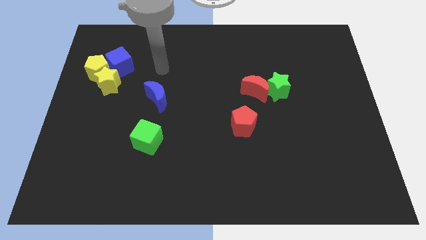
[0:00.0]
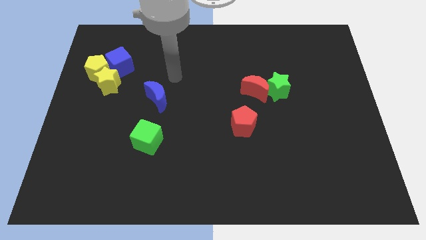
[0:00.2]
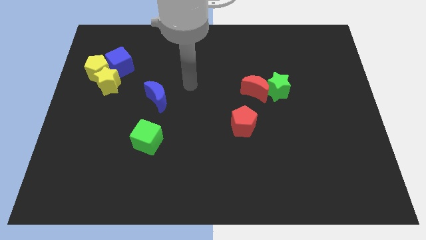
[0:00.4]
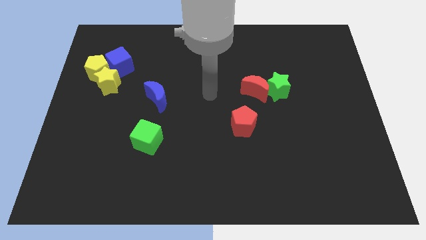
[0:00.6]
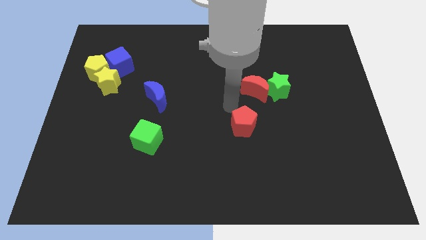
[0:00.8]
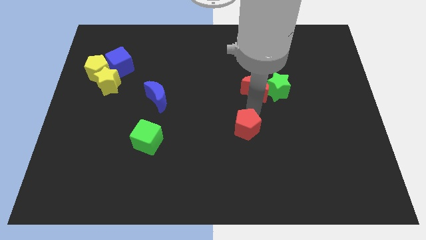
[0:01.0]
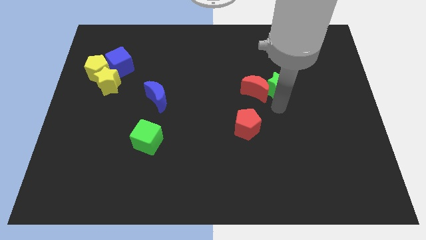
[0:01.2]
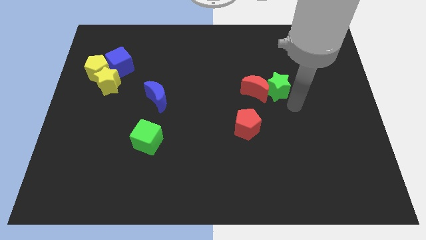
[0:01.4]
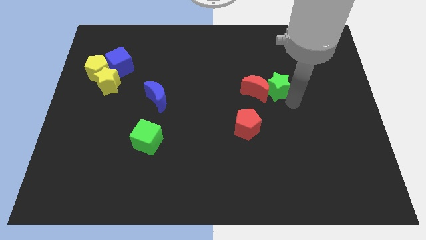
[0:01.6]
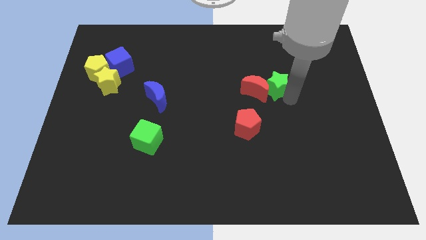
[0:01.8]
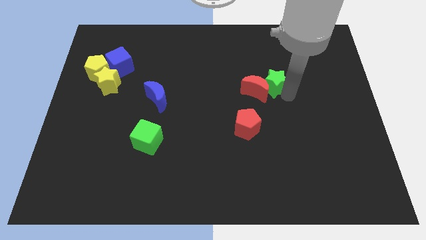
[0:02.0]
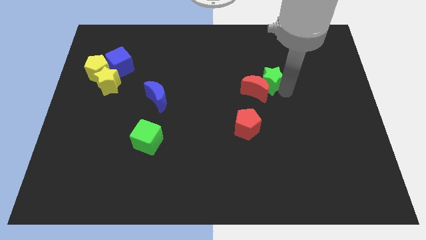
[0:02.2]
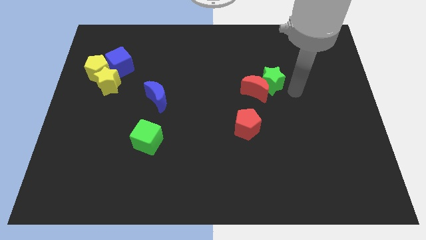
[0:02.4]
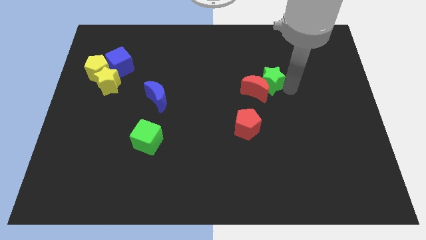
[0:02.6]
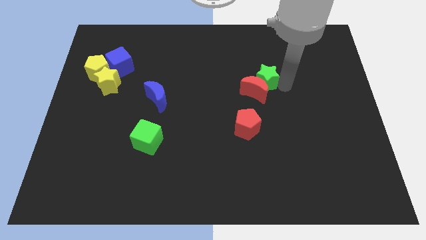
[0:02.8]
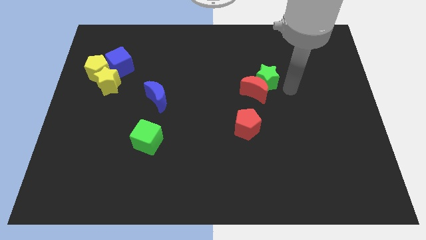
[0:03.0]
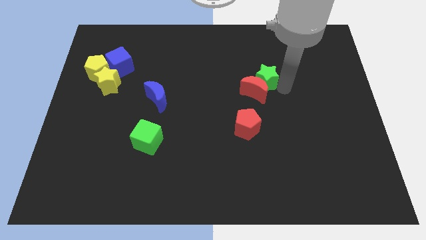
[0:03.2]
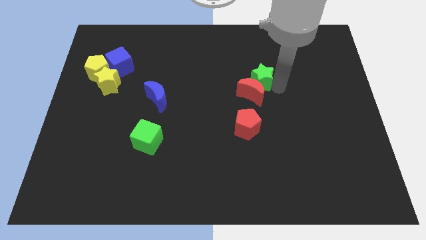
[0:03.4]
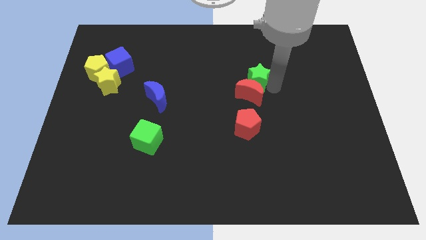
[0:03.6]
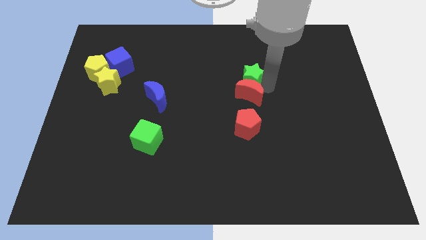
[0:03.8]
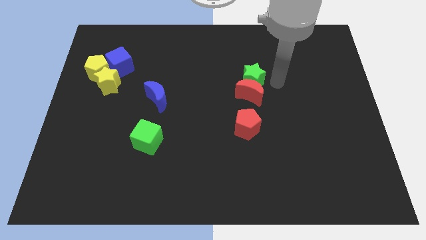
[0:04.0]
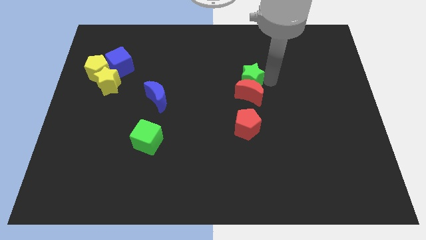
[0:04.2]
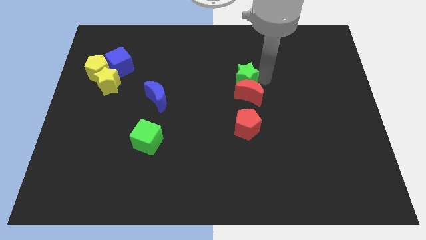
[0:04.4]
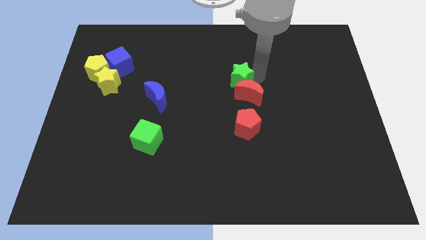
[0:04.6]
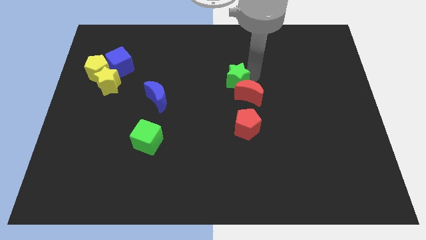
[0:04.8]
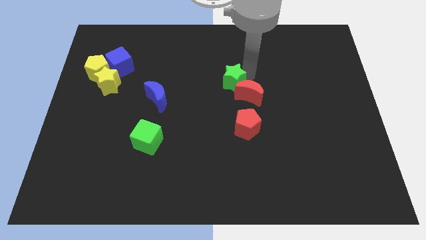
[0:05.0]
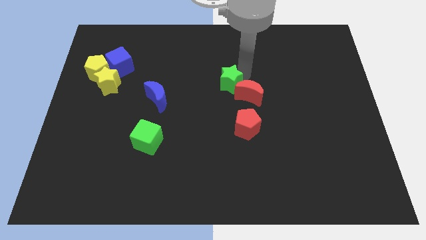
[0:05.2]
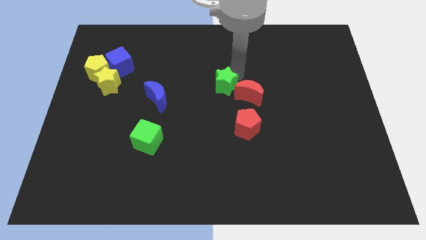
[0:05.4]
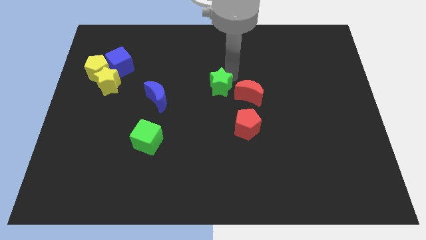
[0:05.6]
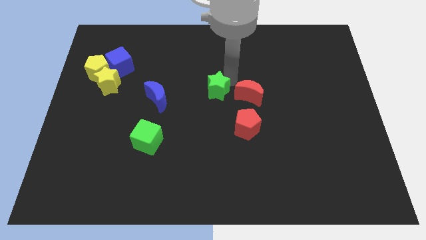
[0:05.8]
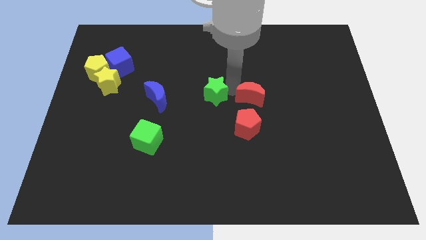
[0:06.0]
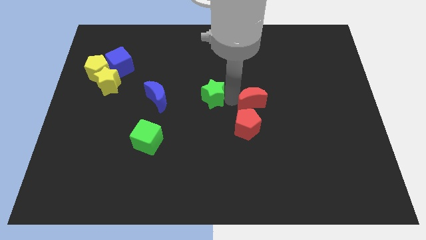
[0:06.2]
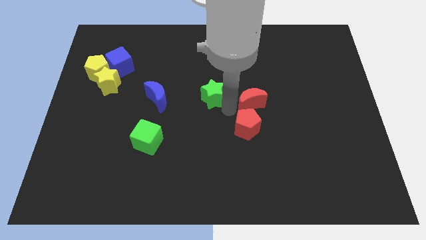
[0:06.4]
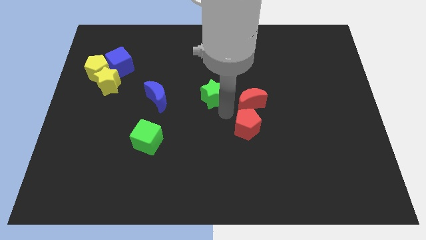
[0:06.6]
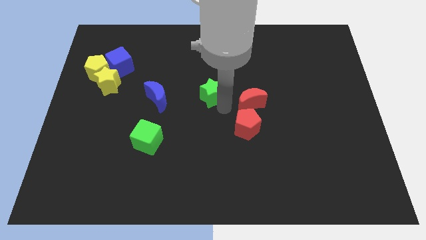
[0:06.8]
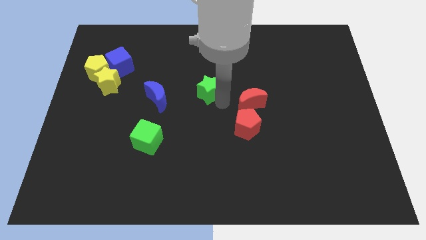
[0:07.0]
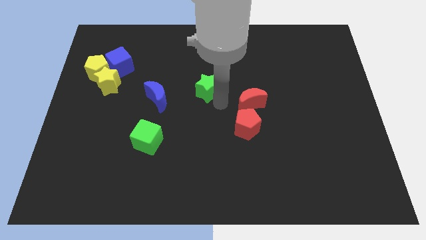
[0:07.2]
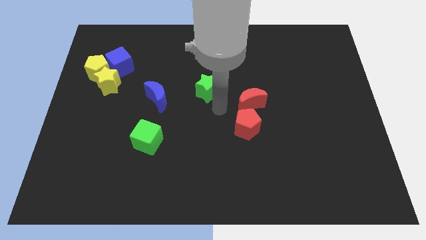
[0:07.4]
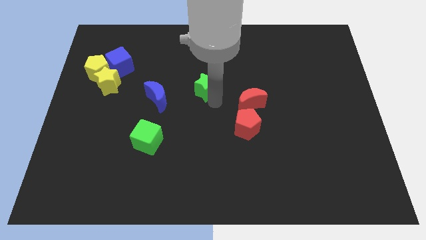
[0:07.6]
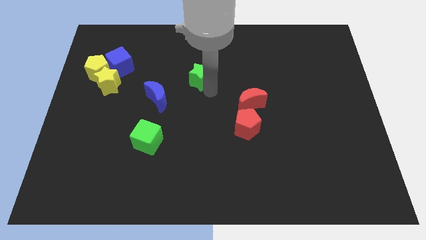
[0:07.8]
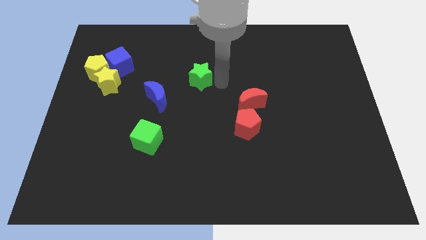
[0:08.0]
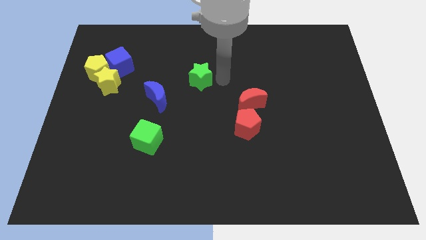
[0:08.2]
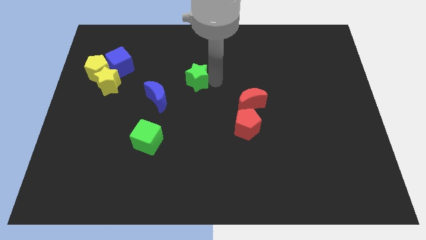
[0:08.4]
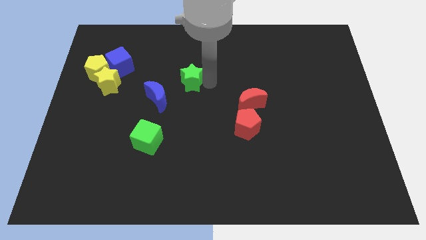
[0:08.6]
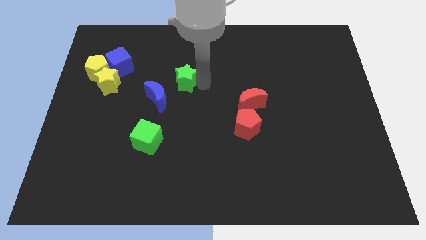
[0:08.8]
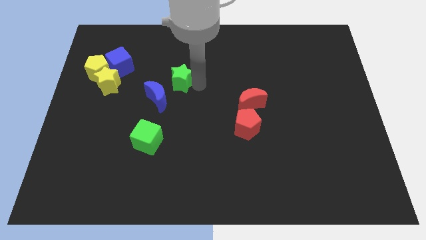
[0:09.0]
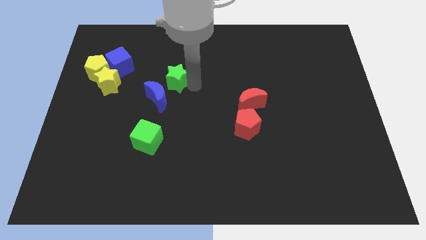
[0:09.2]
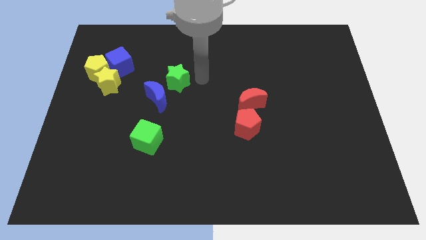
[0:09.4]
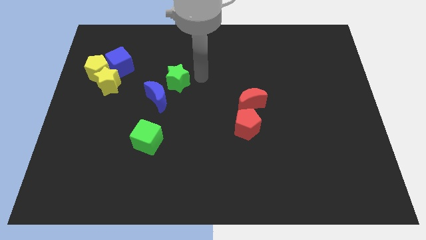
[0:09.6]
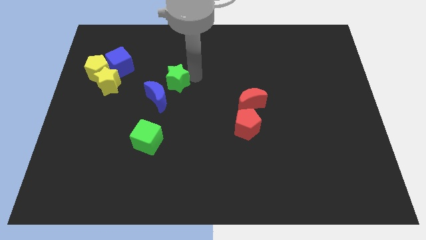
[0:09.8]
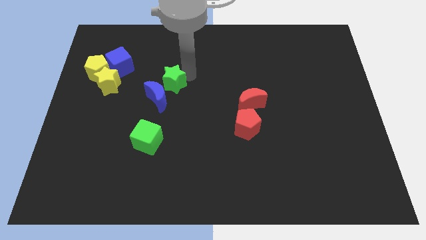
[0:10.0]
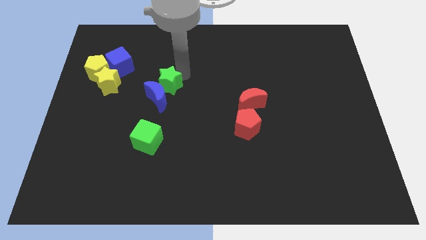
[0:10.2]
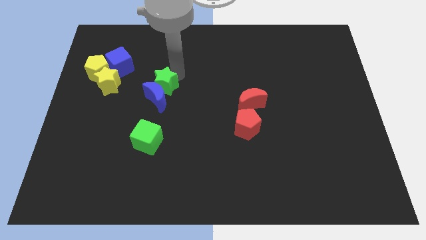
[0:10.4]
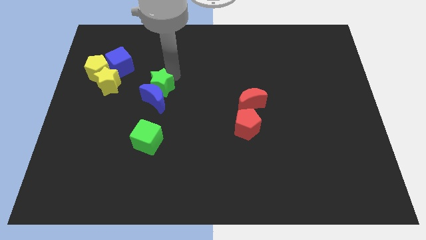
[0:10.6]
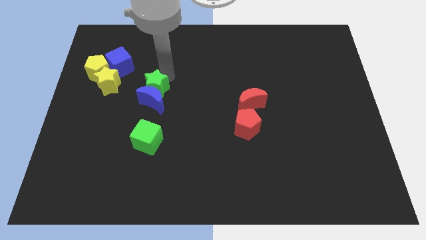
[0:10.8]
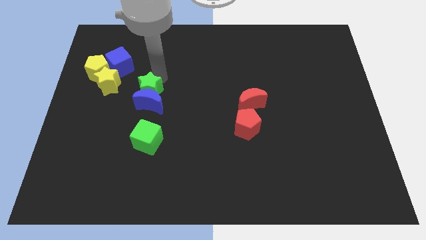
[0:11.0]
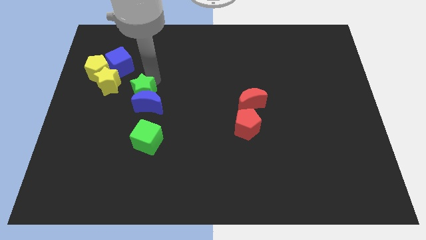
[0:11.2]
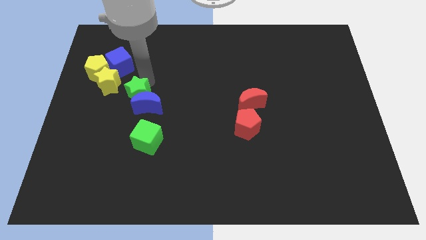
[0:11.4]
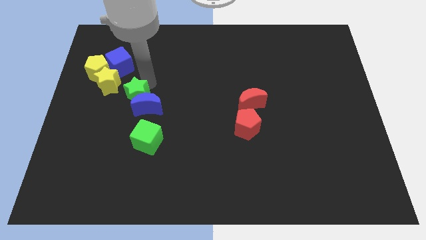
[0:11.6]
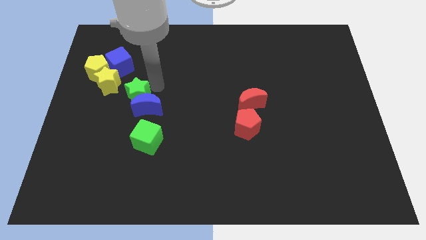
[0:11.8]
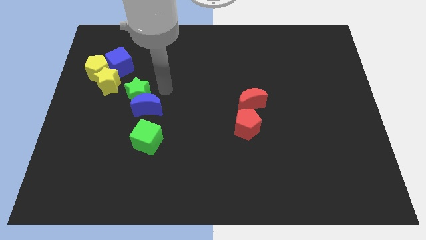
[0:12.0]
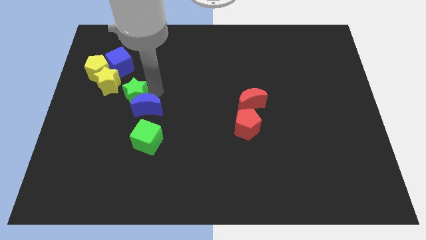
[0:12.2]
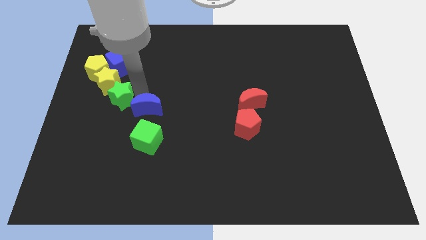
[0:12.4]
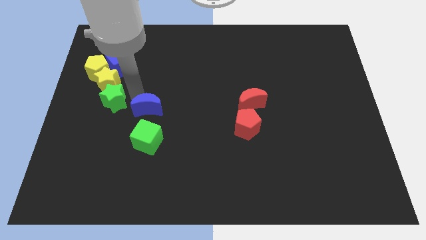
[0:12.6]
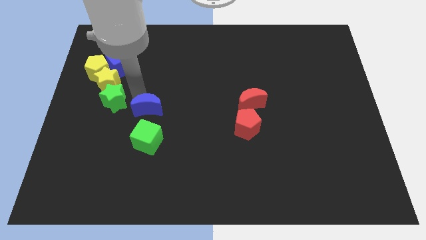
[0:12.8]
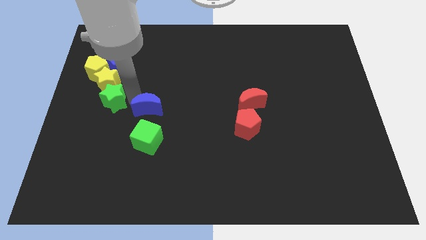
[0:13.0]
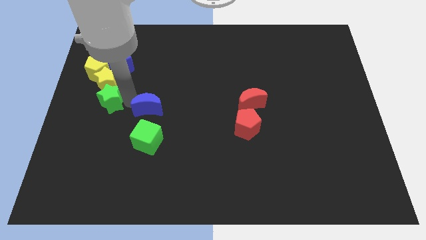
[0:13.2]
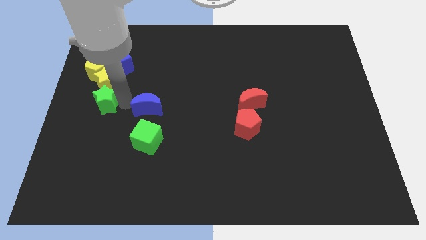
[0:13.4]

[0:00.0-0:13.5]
put the green star to the center left
